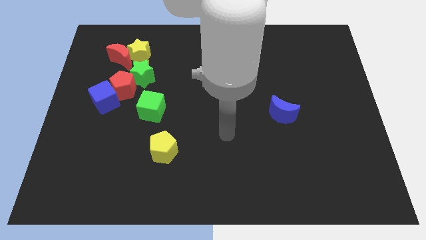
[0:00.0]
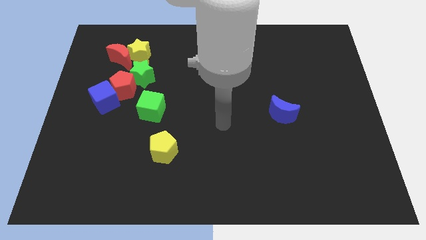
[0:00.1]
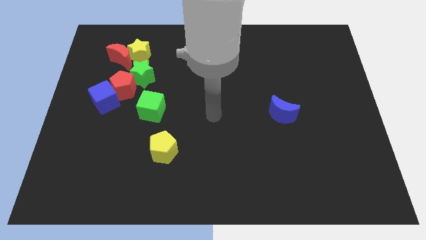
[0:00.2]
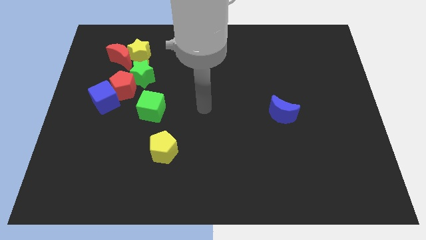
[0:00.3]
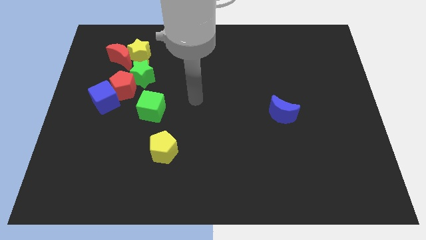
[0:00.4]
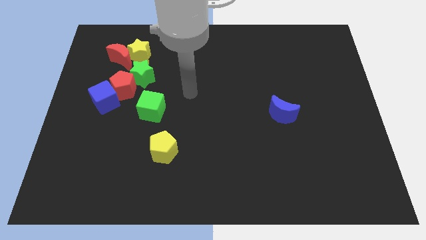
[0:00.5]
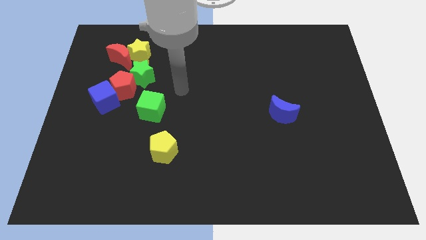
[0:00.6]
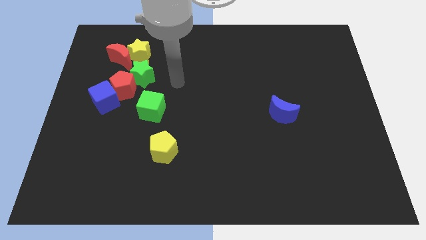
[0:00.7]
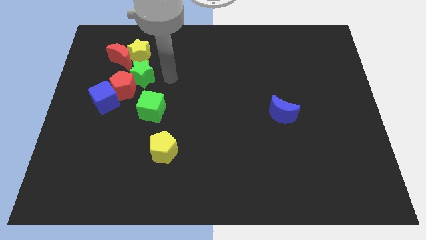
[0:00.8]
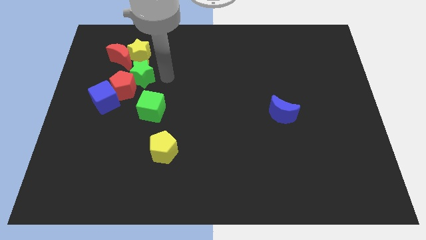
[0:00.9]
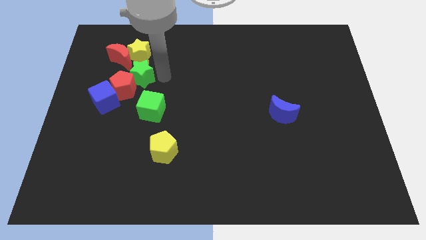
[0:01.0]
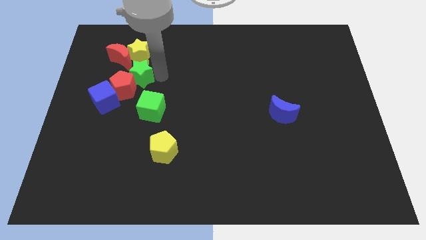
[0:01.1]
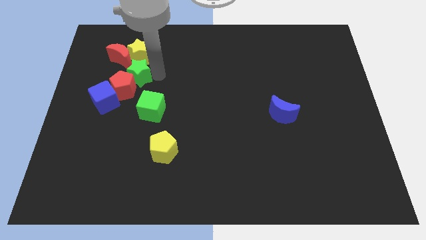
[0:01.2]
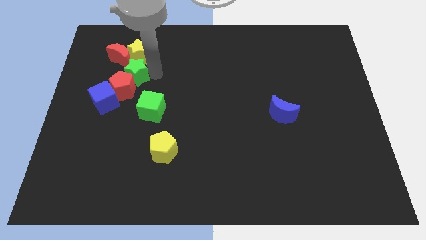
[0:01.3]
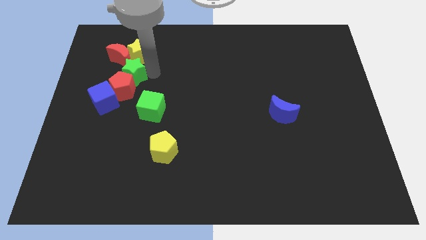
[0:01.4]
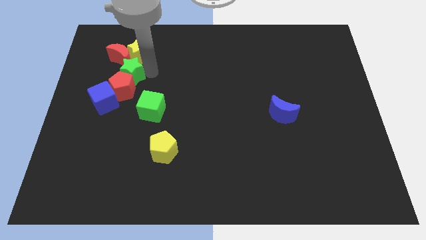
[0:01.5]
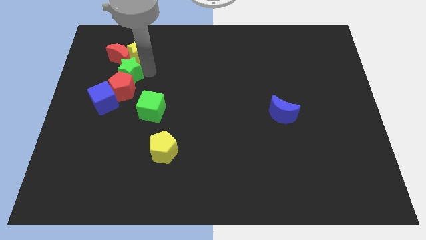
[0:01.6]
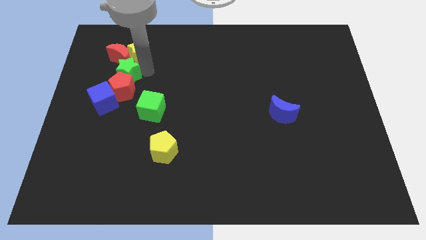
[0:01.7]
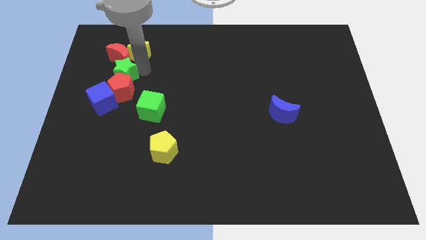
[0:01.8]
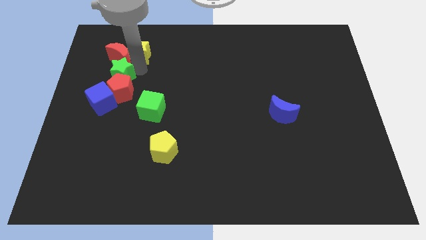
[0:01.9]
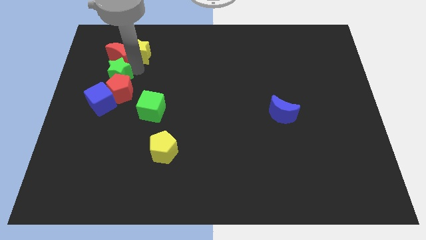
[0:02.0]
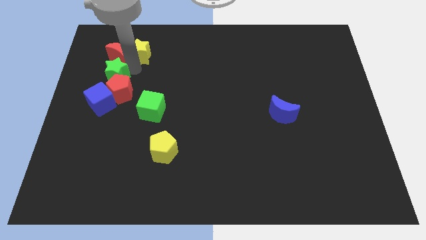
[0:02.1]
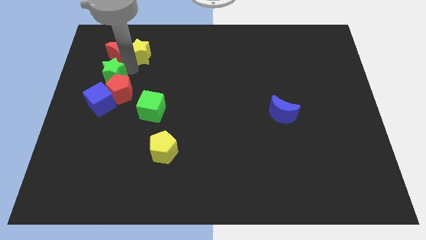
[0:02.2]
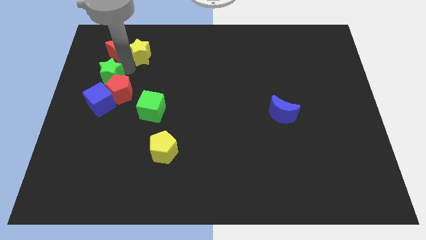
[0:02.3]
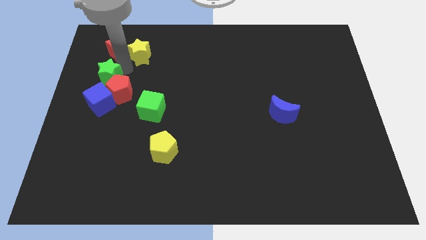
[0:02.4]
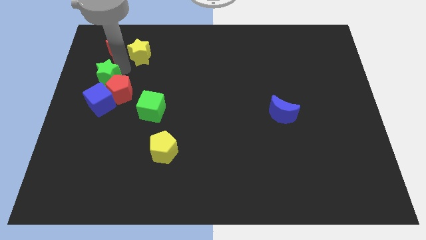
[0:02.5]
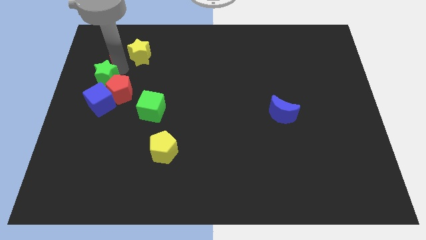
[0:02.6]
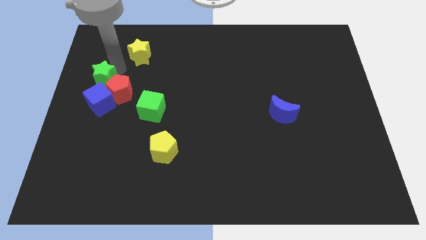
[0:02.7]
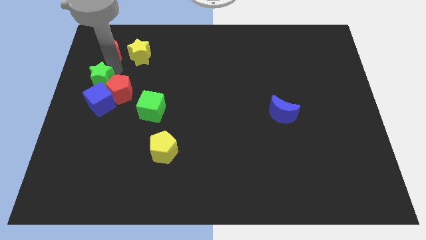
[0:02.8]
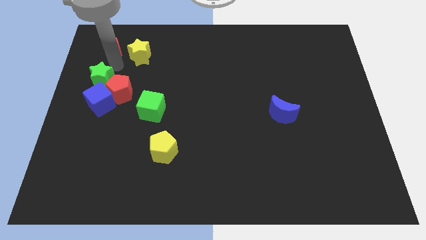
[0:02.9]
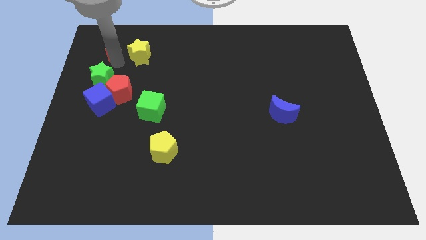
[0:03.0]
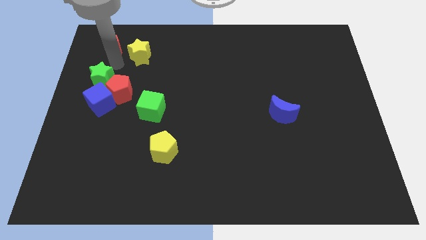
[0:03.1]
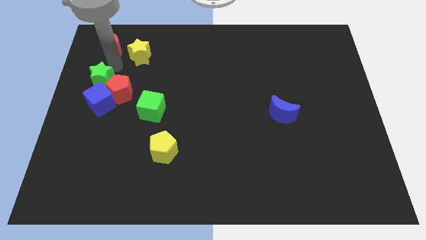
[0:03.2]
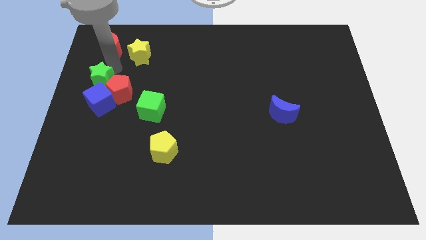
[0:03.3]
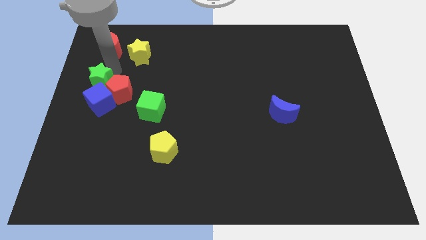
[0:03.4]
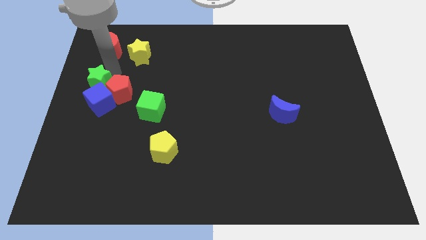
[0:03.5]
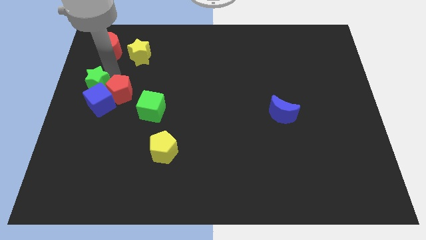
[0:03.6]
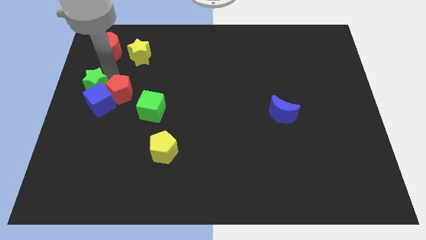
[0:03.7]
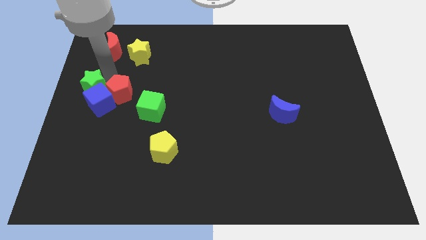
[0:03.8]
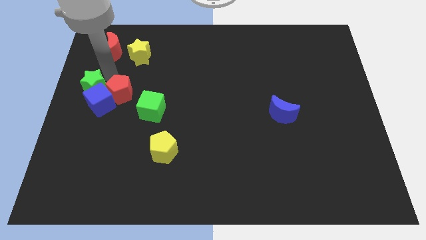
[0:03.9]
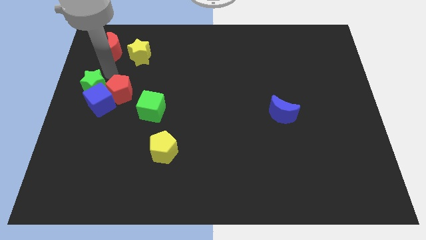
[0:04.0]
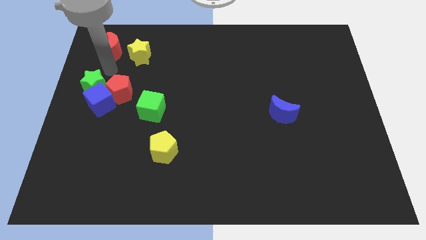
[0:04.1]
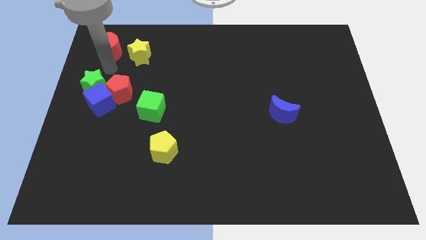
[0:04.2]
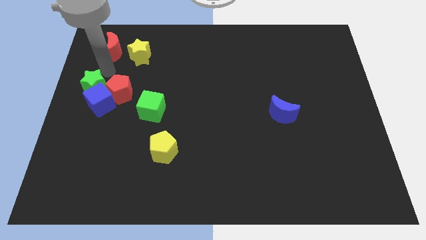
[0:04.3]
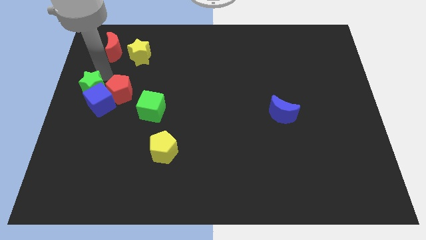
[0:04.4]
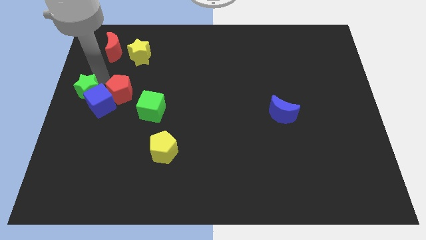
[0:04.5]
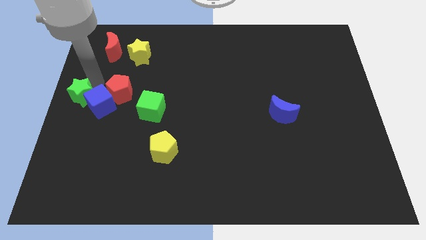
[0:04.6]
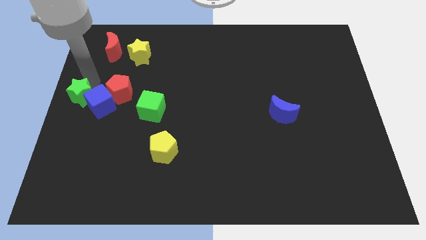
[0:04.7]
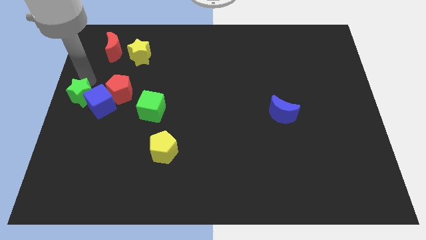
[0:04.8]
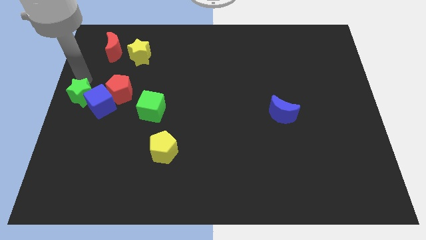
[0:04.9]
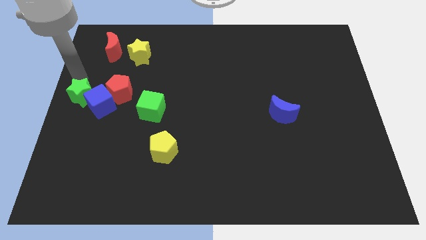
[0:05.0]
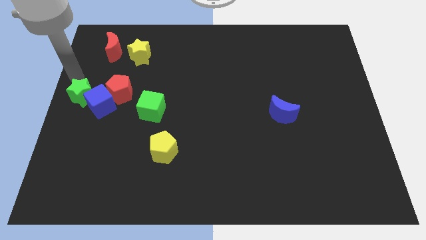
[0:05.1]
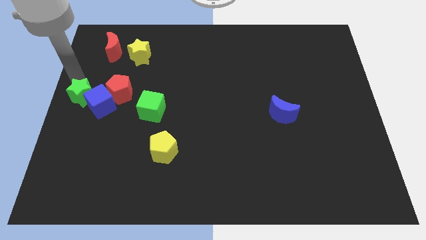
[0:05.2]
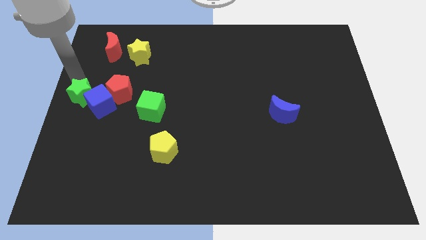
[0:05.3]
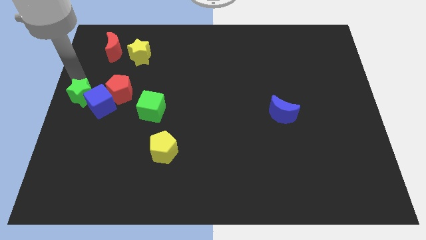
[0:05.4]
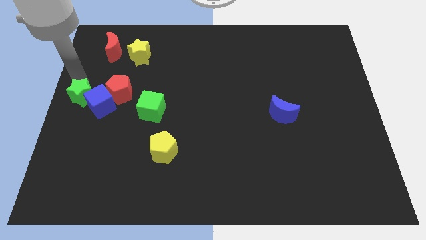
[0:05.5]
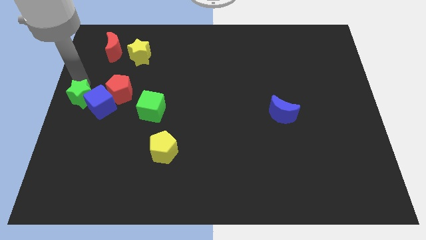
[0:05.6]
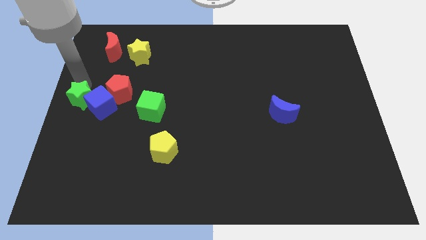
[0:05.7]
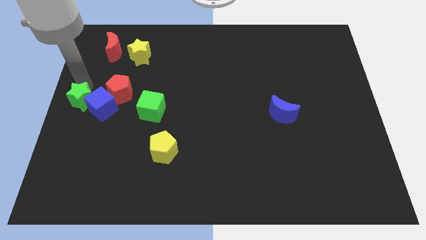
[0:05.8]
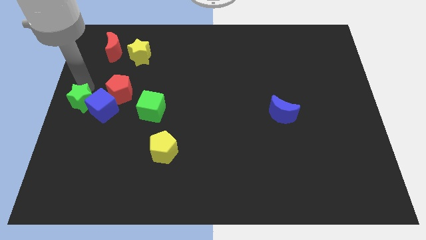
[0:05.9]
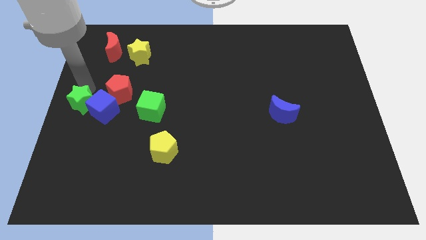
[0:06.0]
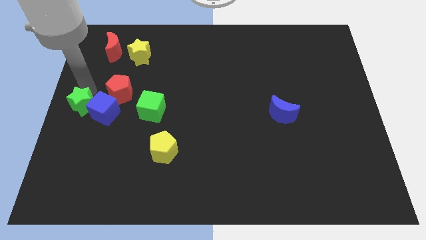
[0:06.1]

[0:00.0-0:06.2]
slide the green star just left of the green cube

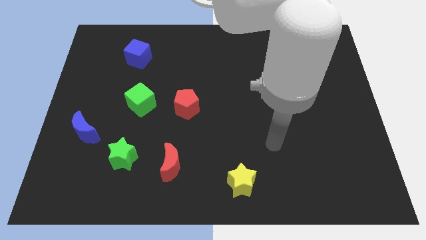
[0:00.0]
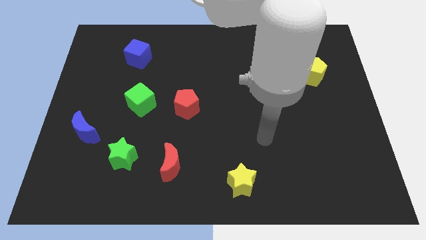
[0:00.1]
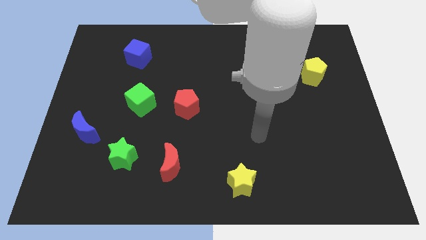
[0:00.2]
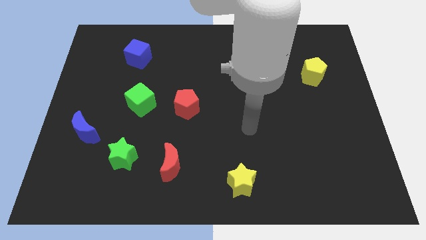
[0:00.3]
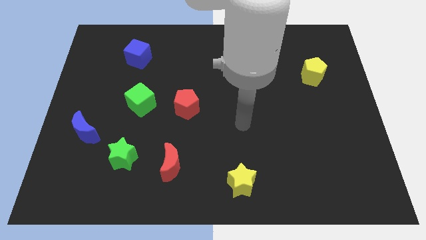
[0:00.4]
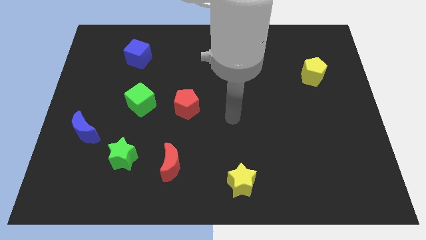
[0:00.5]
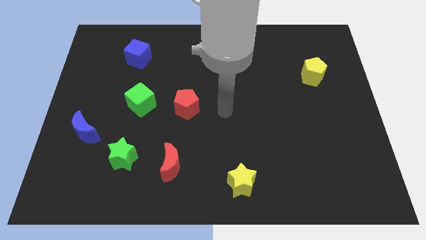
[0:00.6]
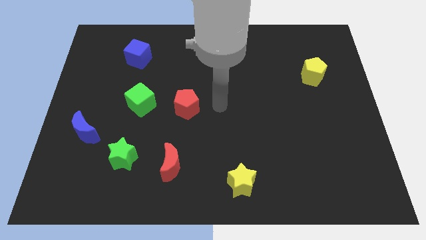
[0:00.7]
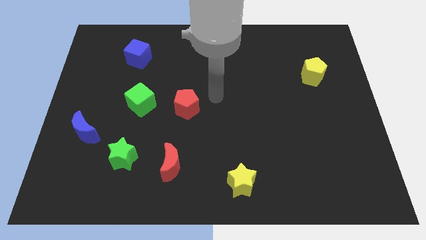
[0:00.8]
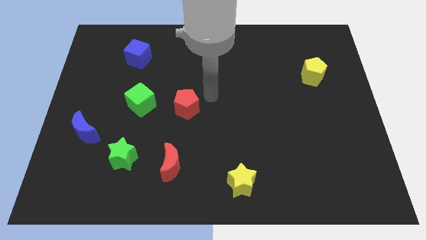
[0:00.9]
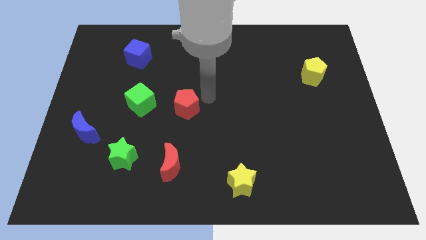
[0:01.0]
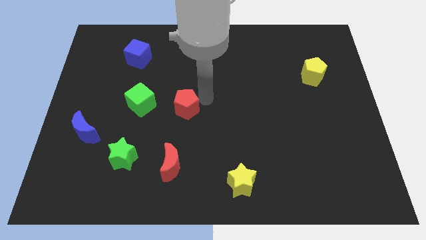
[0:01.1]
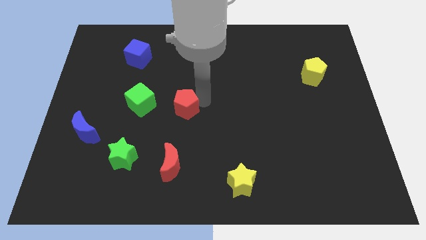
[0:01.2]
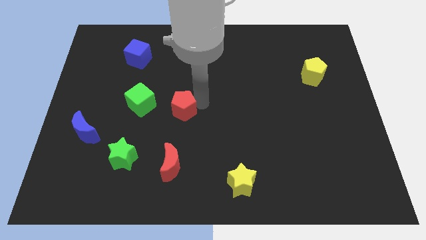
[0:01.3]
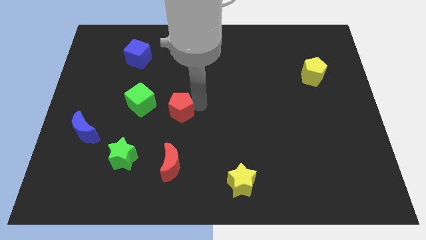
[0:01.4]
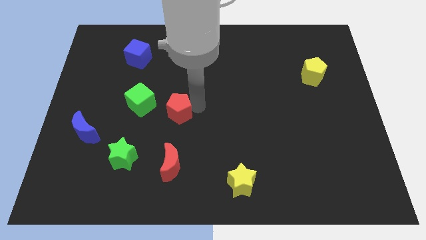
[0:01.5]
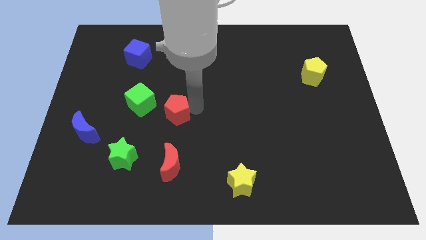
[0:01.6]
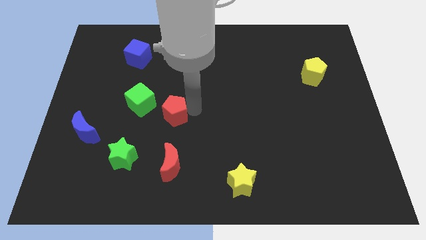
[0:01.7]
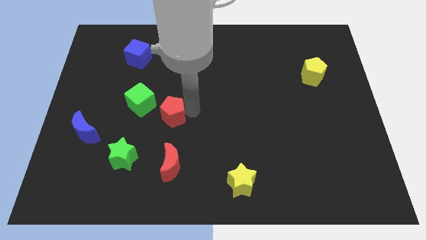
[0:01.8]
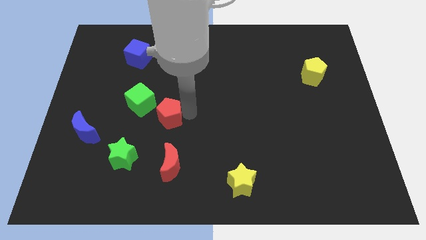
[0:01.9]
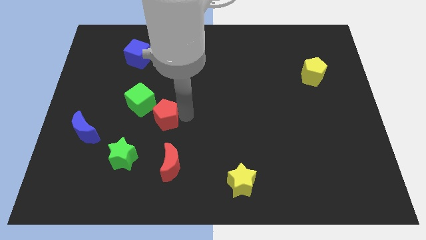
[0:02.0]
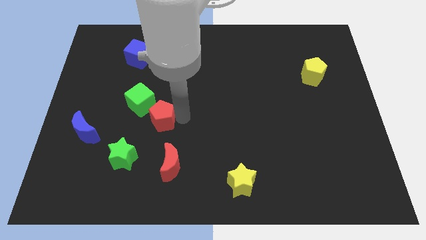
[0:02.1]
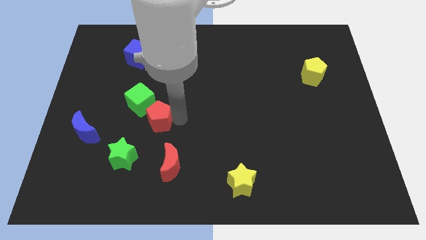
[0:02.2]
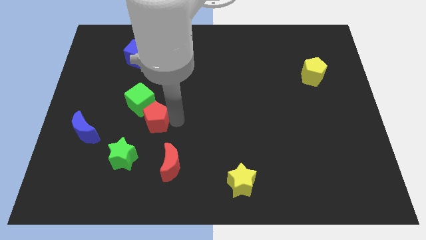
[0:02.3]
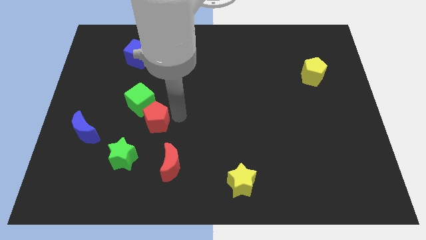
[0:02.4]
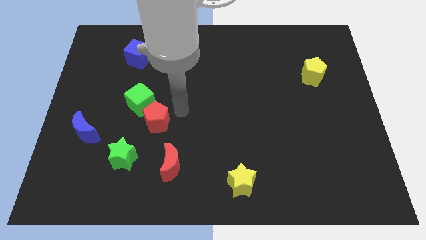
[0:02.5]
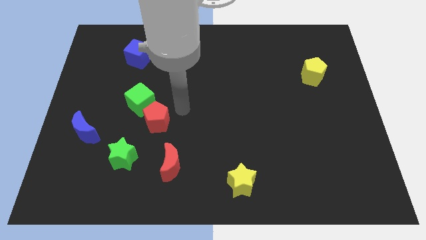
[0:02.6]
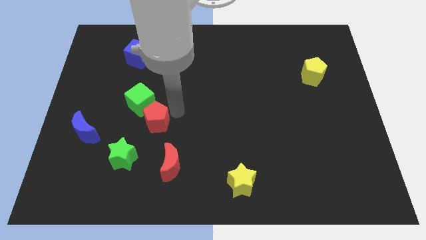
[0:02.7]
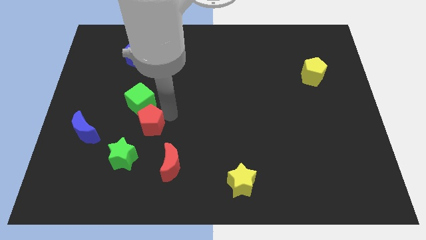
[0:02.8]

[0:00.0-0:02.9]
move the red pentagon to the right side of the blue moon
